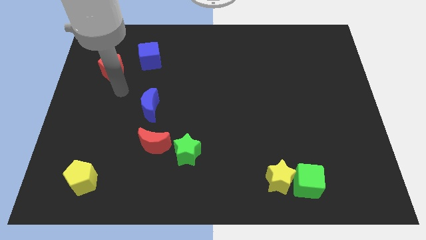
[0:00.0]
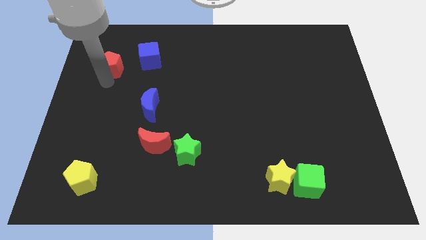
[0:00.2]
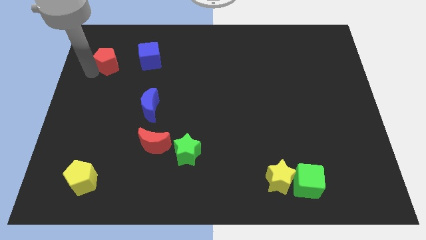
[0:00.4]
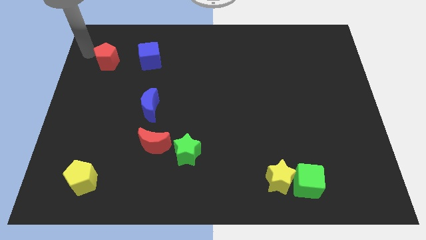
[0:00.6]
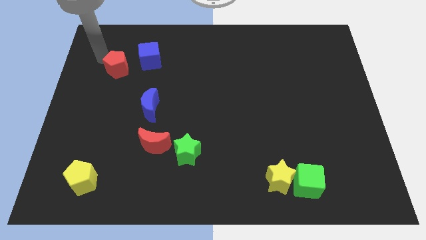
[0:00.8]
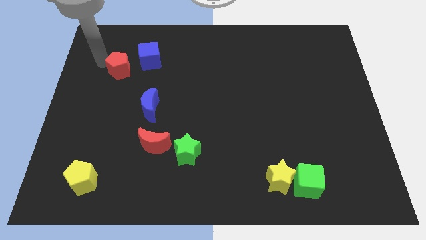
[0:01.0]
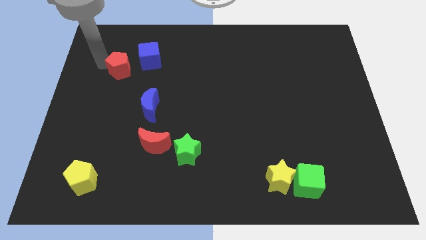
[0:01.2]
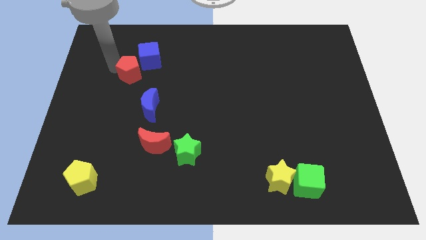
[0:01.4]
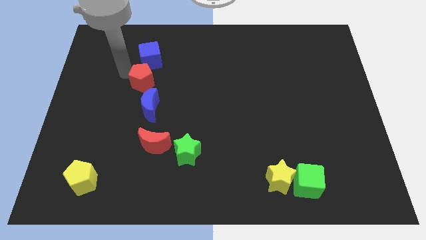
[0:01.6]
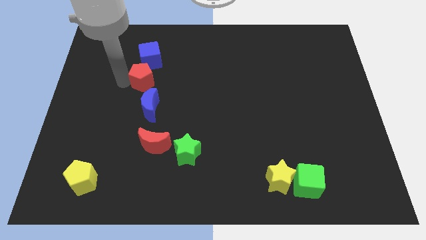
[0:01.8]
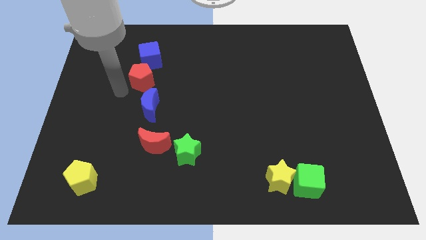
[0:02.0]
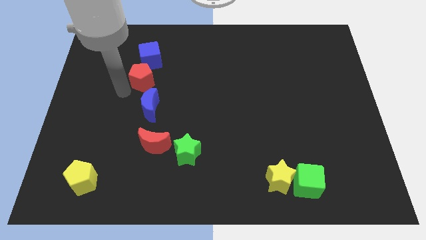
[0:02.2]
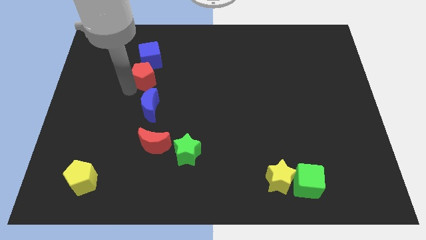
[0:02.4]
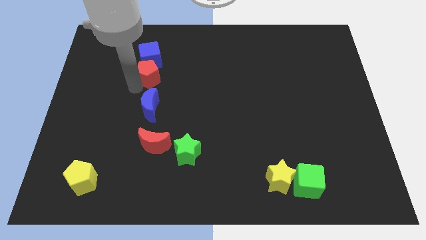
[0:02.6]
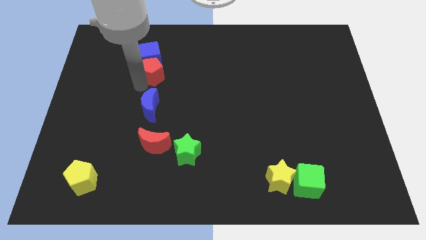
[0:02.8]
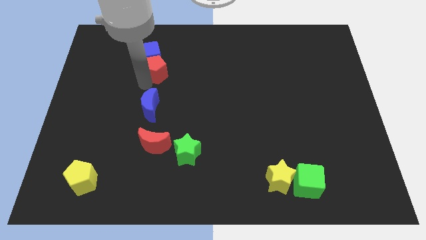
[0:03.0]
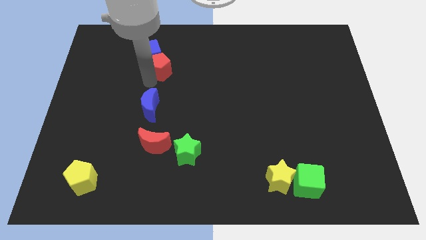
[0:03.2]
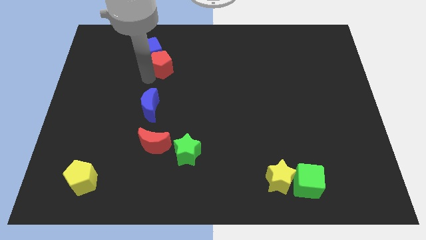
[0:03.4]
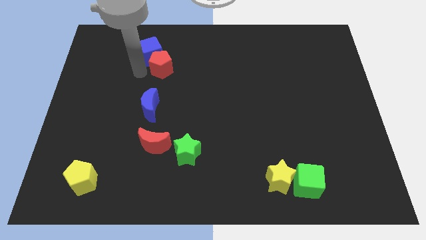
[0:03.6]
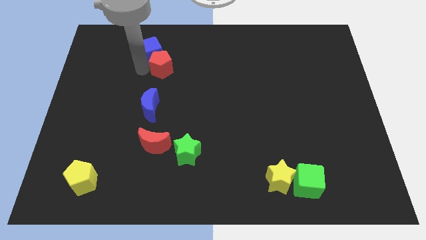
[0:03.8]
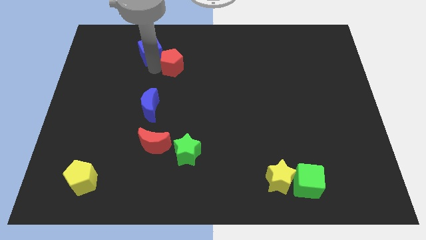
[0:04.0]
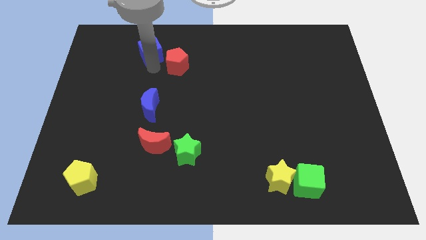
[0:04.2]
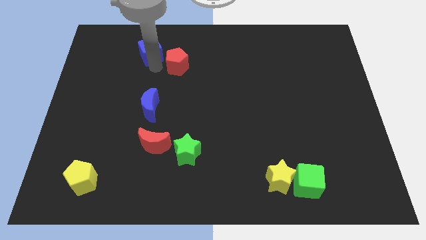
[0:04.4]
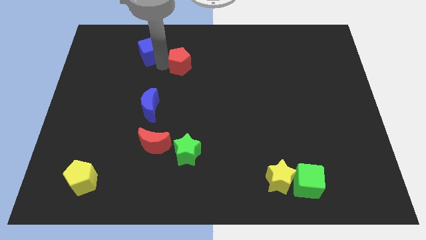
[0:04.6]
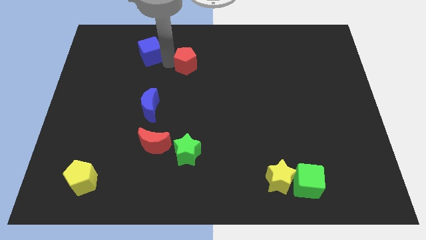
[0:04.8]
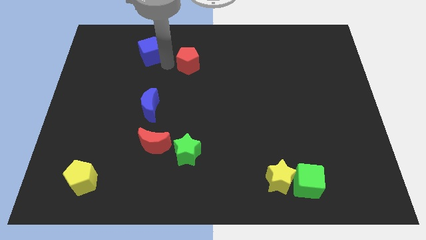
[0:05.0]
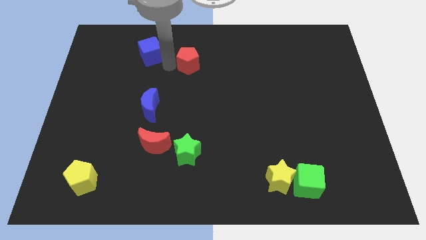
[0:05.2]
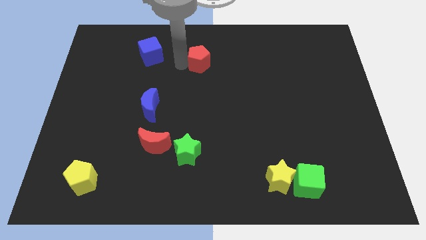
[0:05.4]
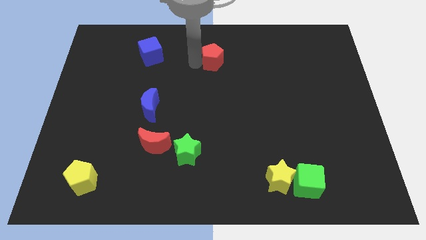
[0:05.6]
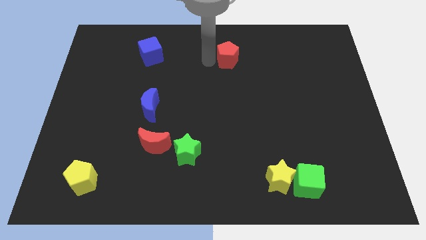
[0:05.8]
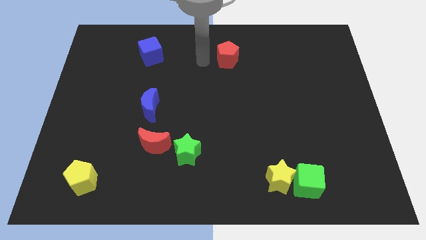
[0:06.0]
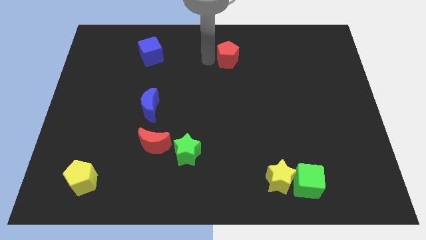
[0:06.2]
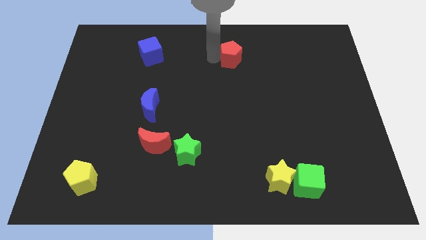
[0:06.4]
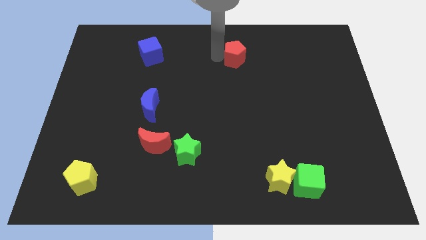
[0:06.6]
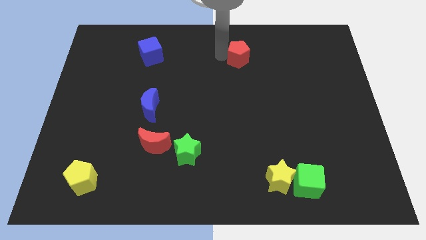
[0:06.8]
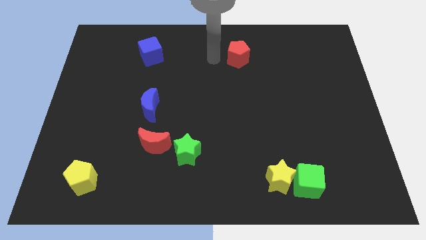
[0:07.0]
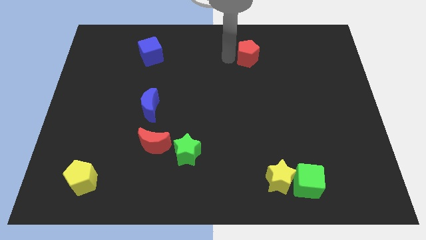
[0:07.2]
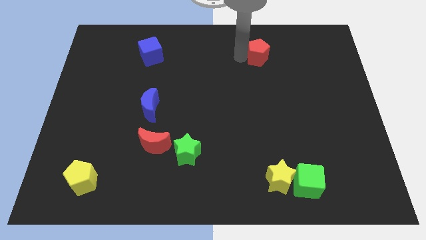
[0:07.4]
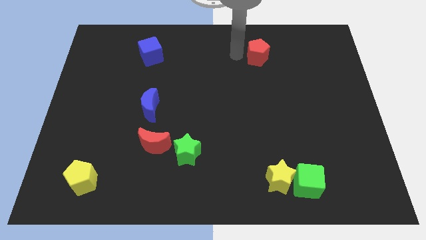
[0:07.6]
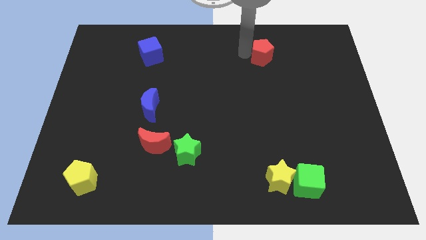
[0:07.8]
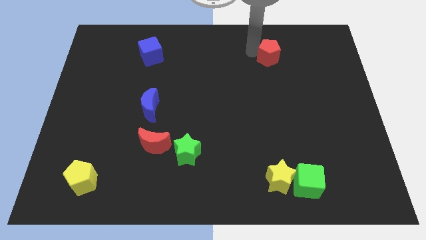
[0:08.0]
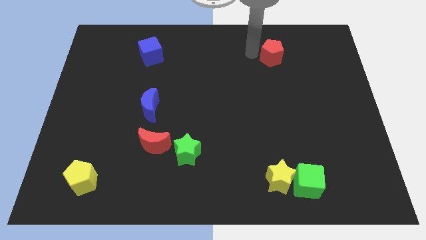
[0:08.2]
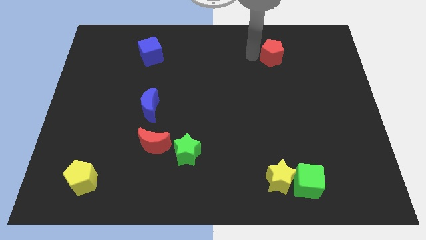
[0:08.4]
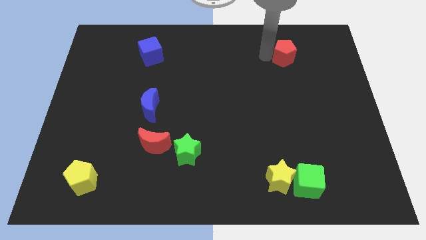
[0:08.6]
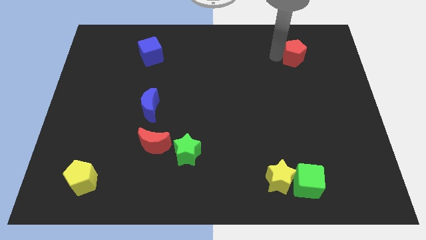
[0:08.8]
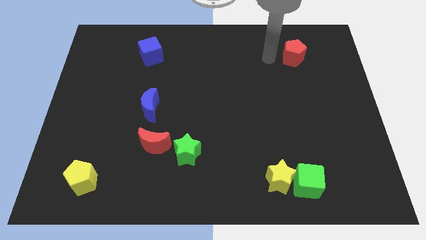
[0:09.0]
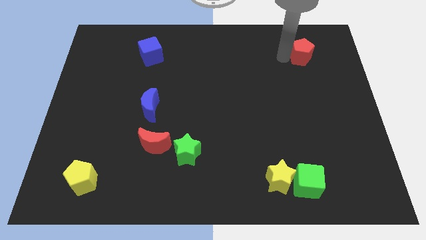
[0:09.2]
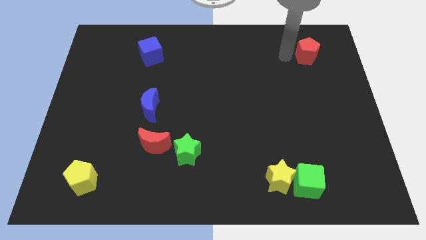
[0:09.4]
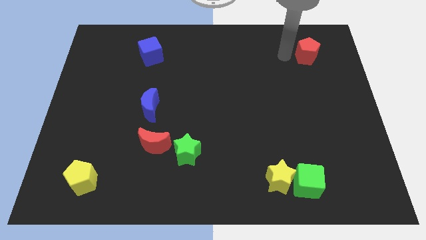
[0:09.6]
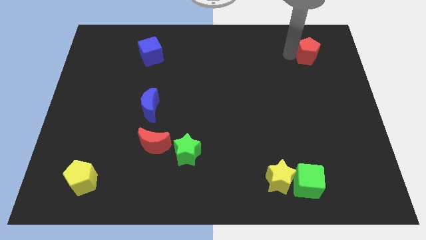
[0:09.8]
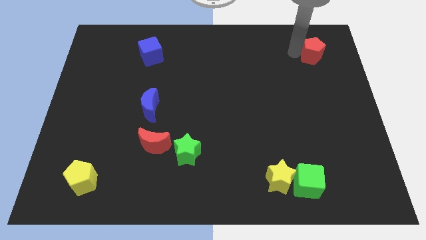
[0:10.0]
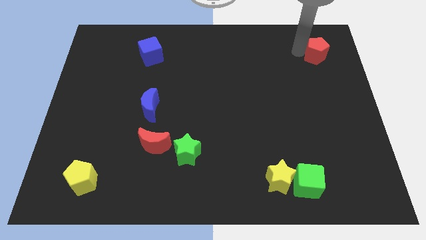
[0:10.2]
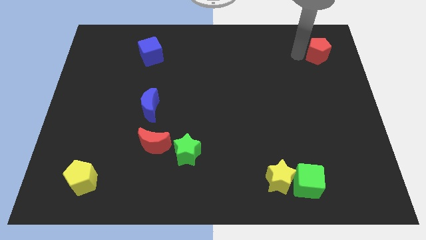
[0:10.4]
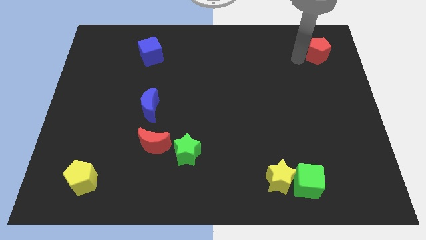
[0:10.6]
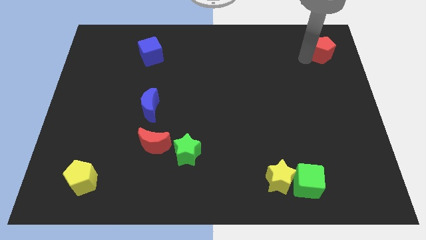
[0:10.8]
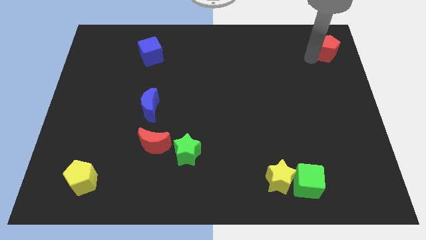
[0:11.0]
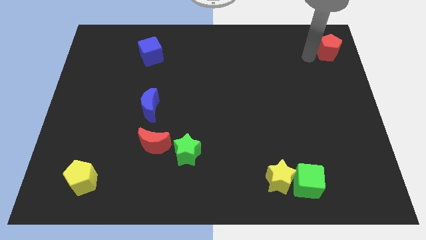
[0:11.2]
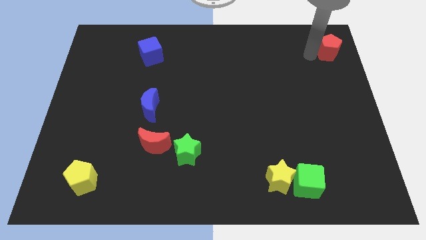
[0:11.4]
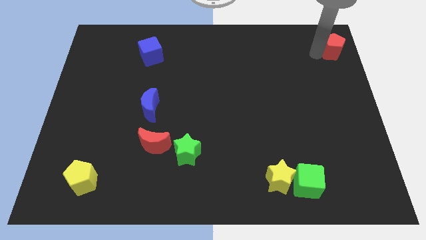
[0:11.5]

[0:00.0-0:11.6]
put the red pentagon to the top right of the board

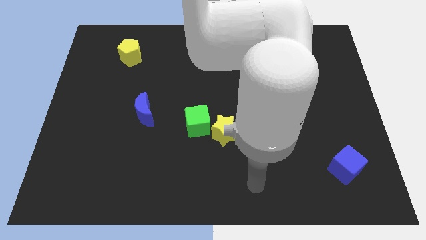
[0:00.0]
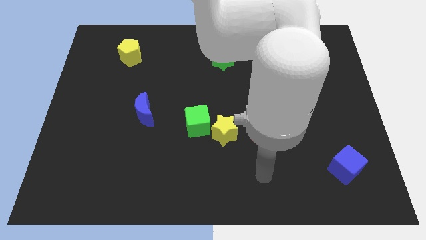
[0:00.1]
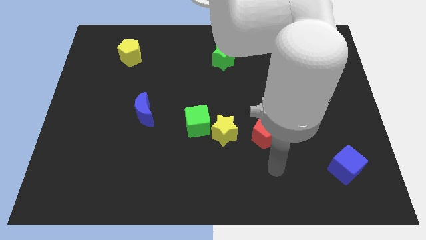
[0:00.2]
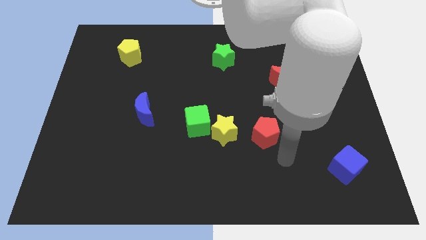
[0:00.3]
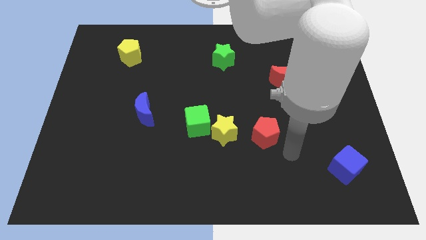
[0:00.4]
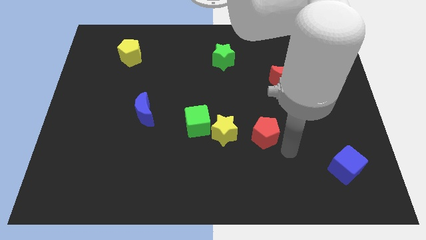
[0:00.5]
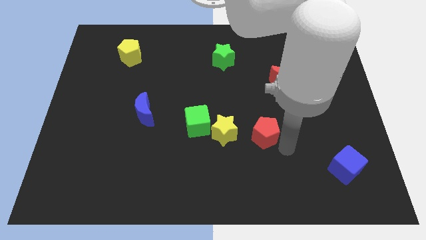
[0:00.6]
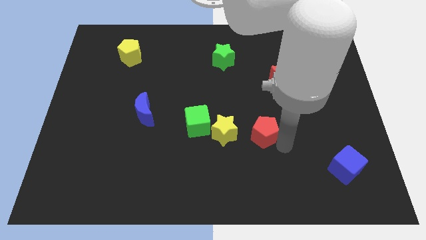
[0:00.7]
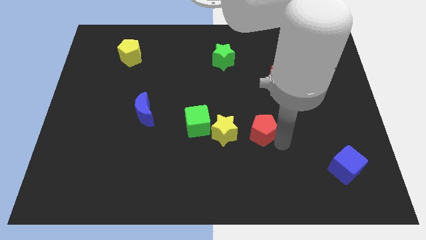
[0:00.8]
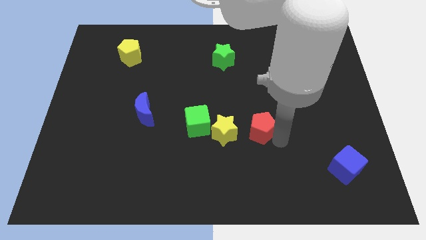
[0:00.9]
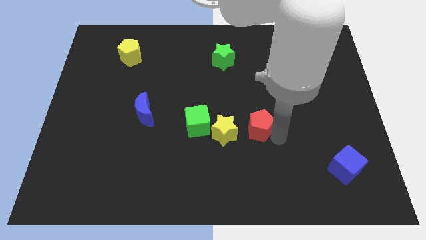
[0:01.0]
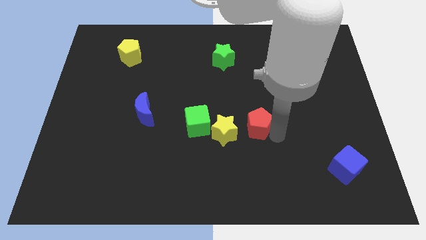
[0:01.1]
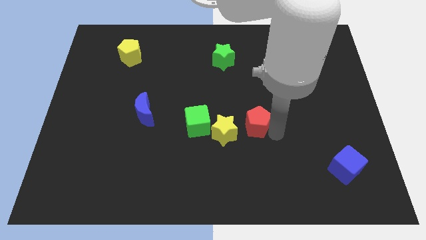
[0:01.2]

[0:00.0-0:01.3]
move the red pentagon to the middle of the board
